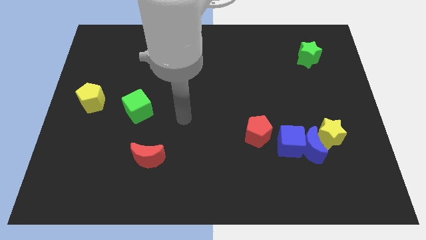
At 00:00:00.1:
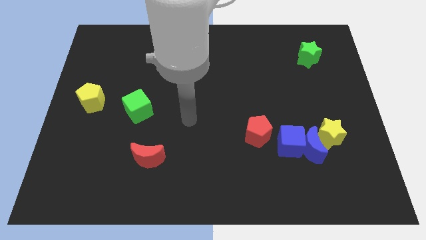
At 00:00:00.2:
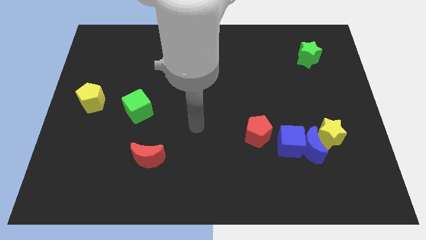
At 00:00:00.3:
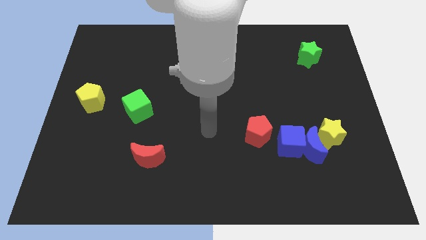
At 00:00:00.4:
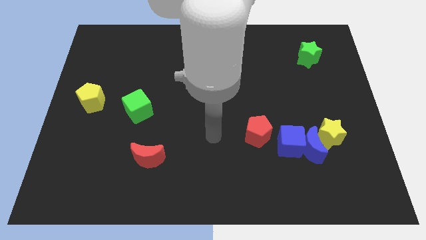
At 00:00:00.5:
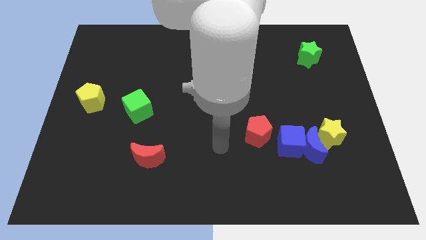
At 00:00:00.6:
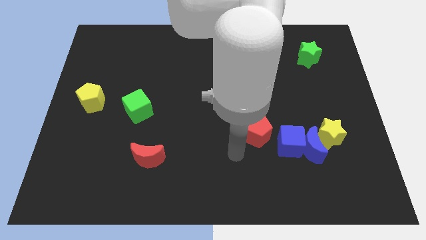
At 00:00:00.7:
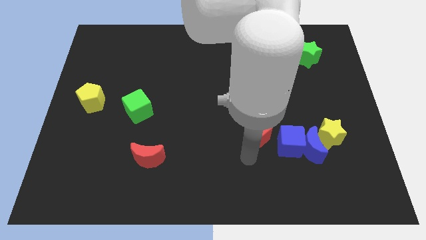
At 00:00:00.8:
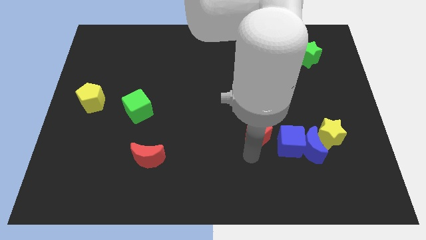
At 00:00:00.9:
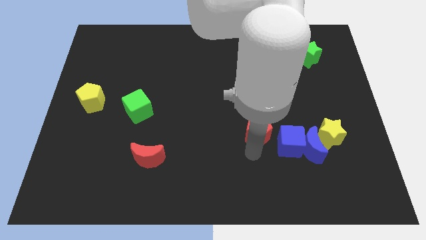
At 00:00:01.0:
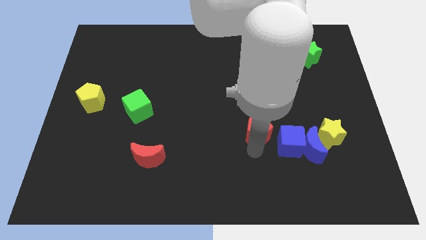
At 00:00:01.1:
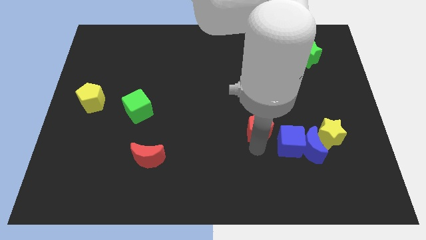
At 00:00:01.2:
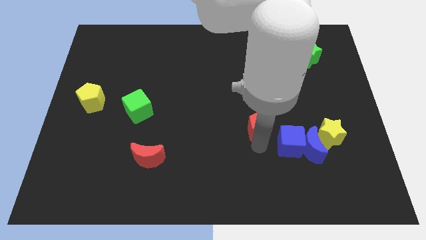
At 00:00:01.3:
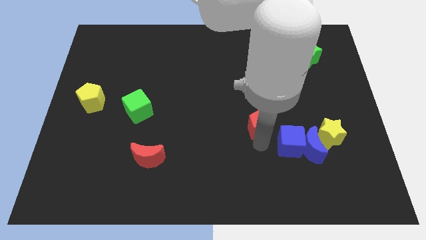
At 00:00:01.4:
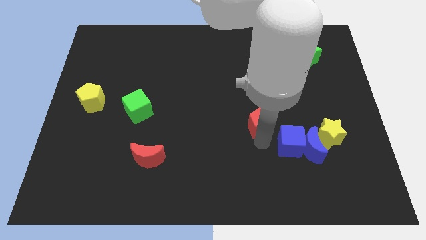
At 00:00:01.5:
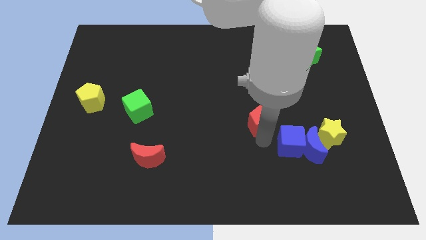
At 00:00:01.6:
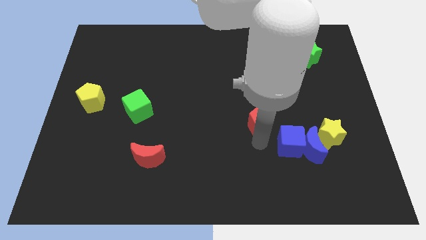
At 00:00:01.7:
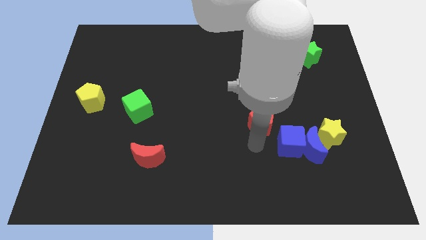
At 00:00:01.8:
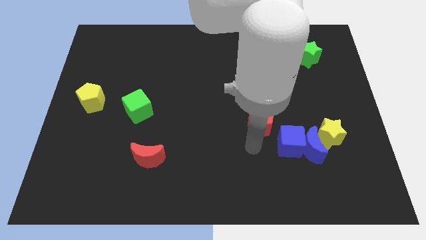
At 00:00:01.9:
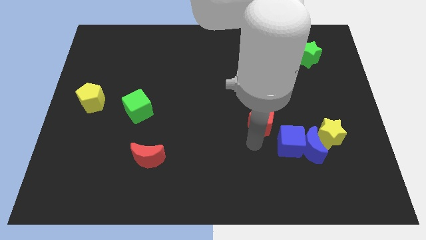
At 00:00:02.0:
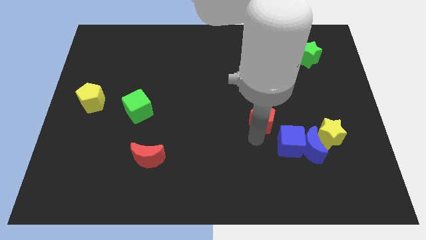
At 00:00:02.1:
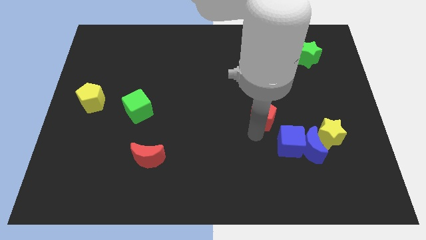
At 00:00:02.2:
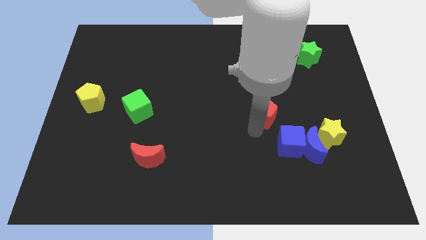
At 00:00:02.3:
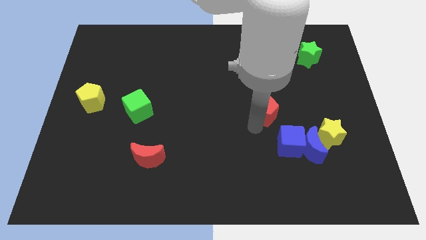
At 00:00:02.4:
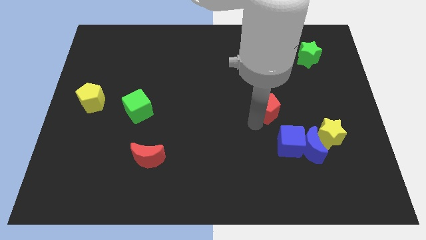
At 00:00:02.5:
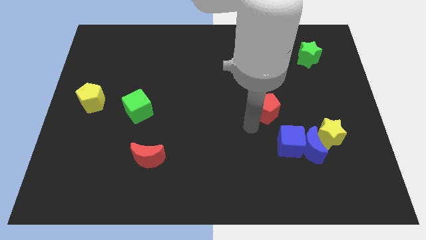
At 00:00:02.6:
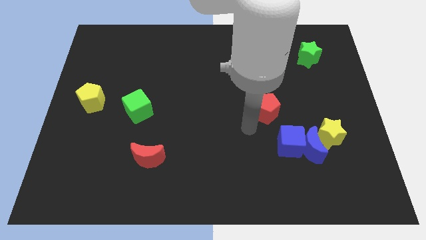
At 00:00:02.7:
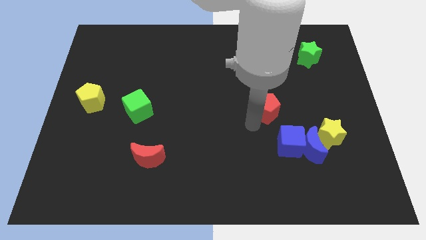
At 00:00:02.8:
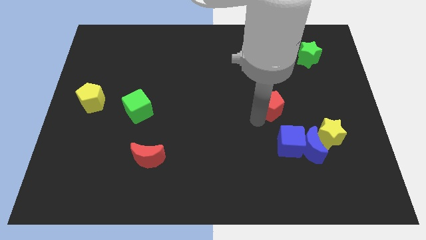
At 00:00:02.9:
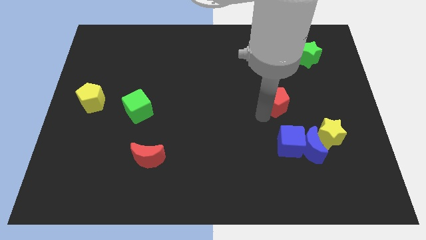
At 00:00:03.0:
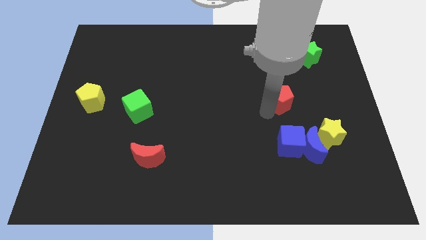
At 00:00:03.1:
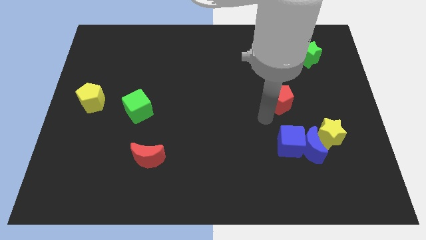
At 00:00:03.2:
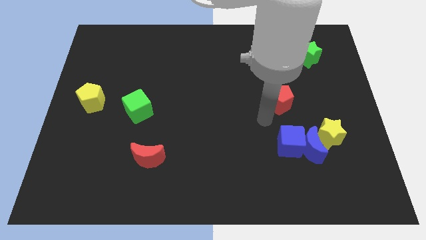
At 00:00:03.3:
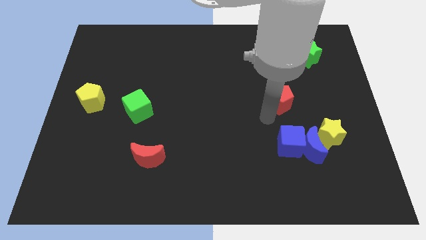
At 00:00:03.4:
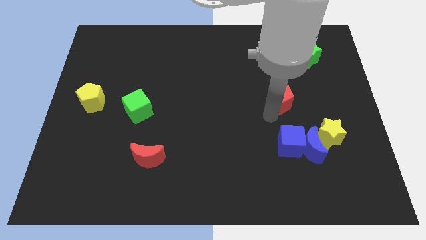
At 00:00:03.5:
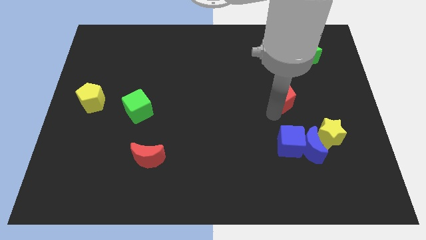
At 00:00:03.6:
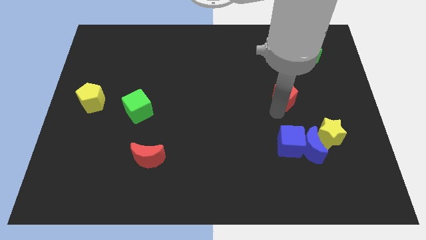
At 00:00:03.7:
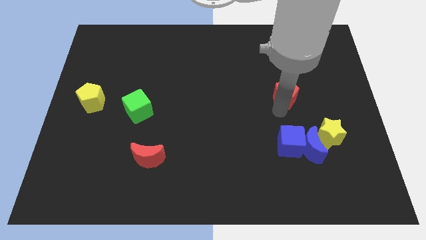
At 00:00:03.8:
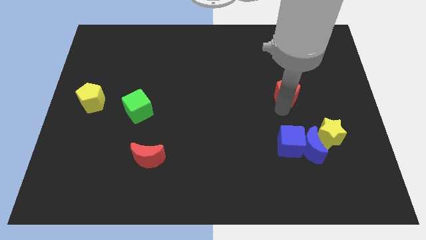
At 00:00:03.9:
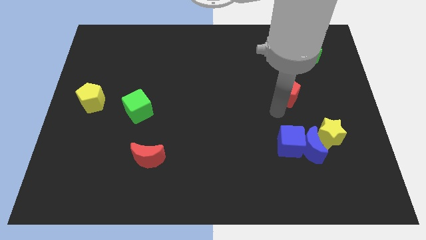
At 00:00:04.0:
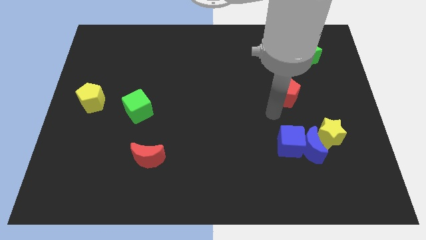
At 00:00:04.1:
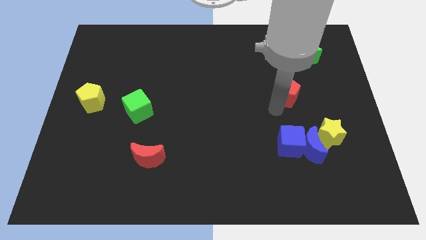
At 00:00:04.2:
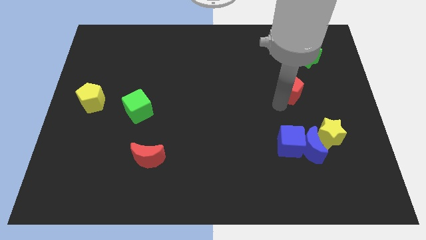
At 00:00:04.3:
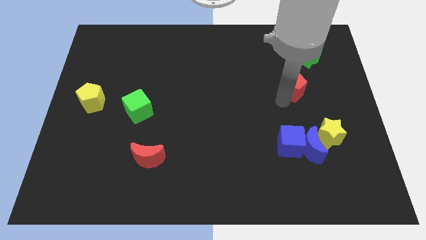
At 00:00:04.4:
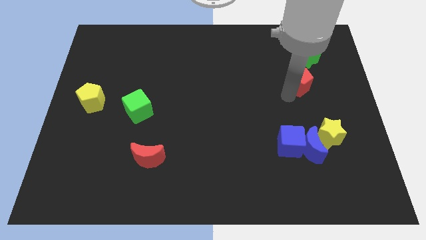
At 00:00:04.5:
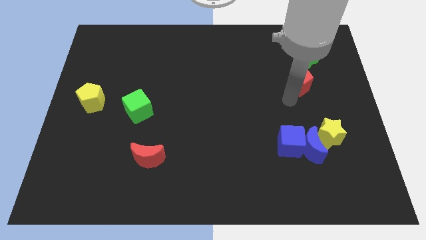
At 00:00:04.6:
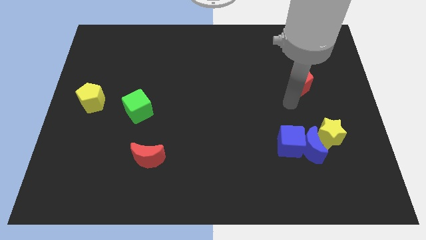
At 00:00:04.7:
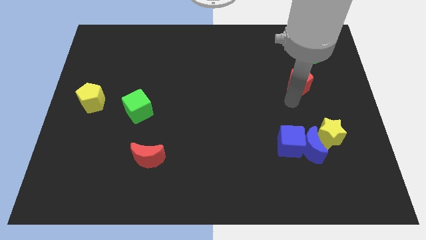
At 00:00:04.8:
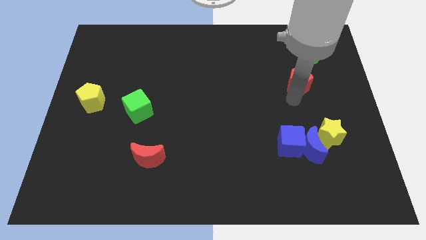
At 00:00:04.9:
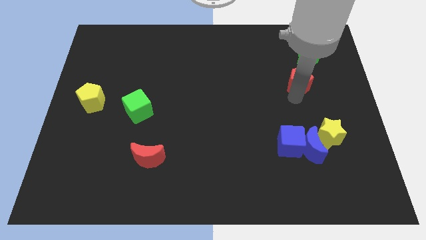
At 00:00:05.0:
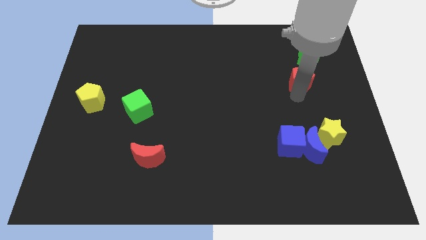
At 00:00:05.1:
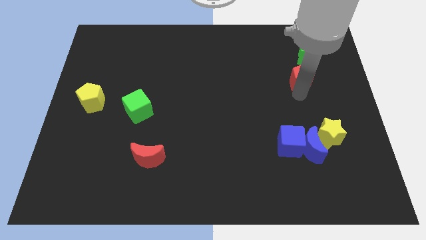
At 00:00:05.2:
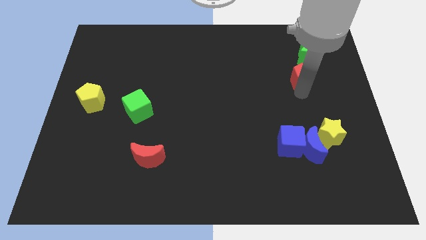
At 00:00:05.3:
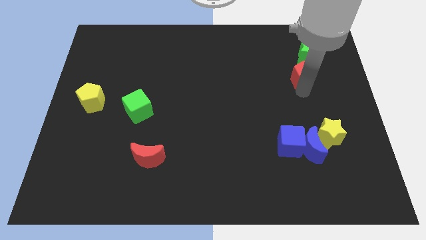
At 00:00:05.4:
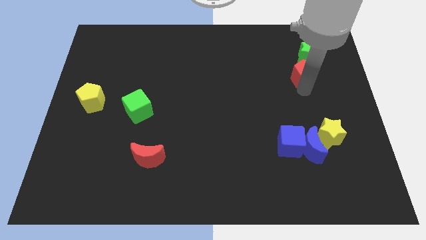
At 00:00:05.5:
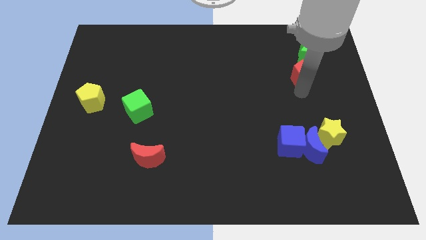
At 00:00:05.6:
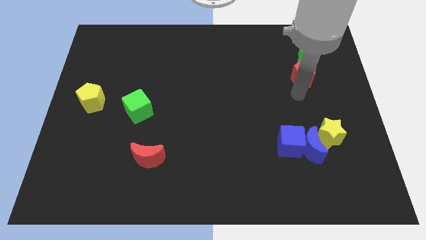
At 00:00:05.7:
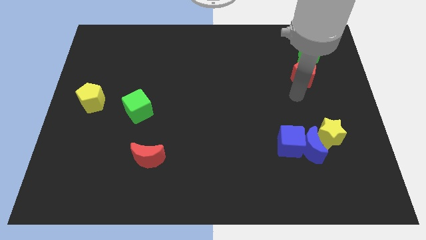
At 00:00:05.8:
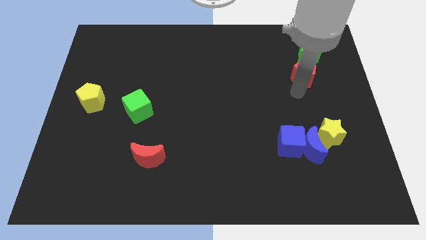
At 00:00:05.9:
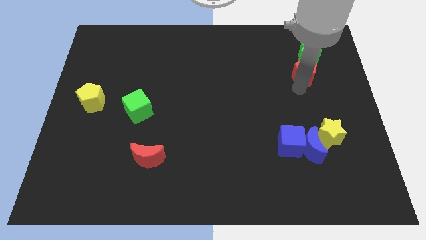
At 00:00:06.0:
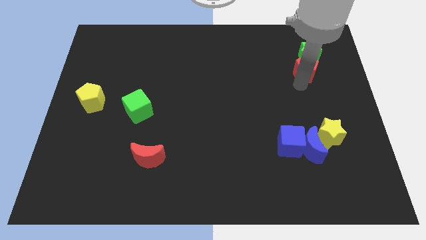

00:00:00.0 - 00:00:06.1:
slide the red pentagon to the green star
